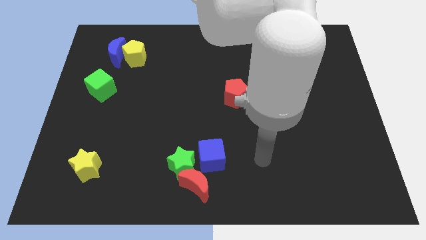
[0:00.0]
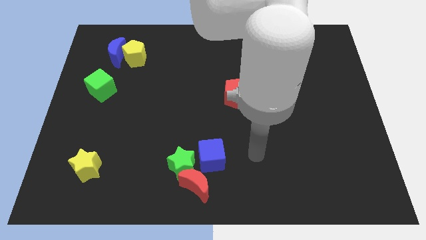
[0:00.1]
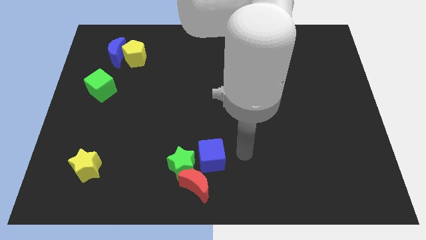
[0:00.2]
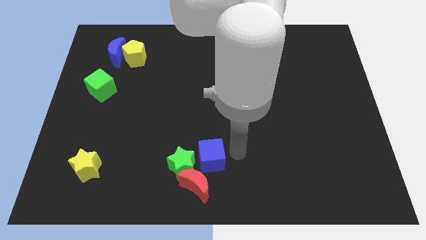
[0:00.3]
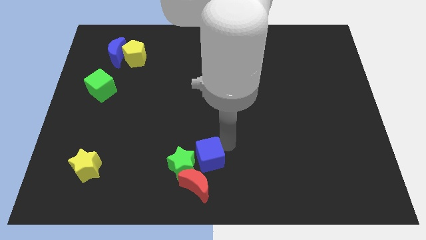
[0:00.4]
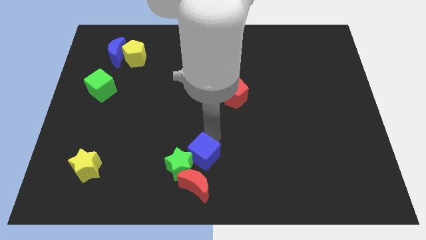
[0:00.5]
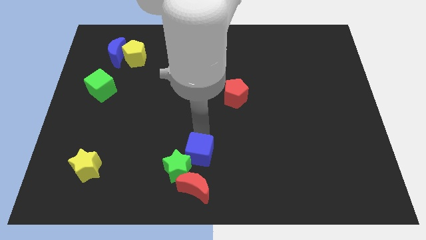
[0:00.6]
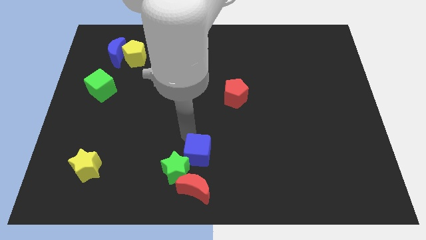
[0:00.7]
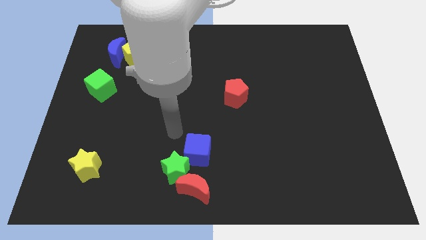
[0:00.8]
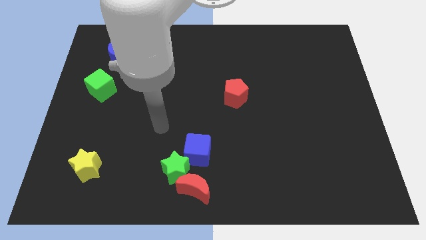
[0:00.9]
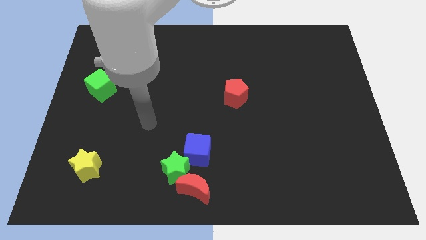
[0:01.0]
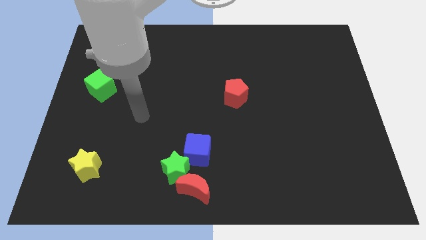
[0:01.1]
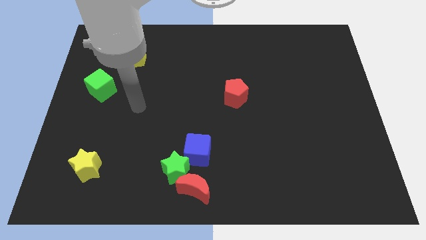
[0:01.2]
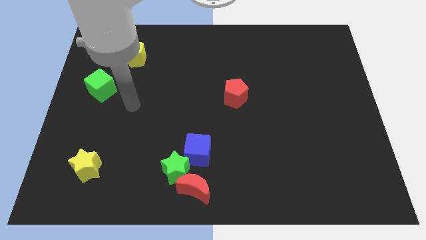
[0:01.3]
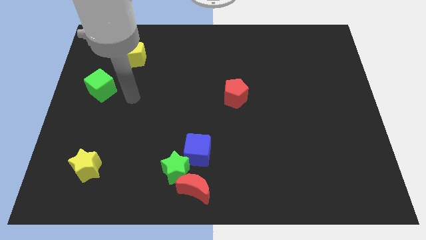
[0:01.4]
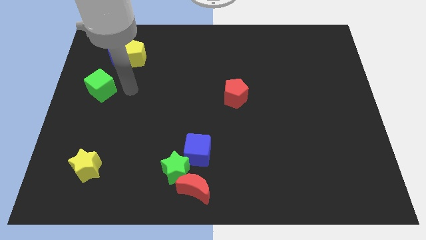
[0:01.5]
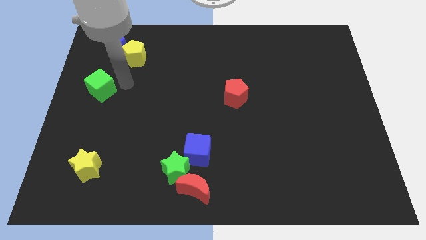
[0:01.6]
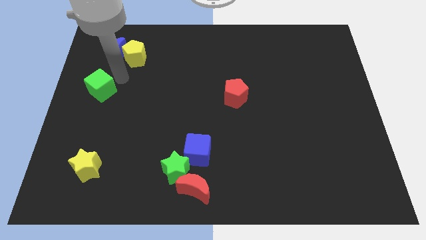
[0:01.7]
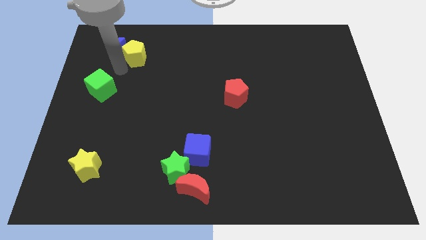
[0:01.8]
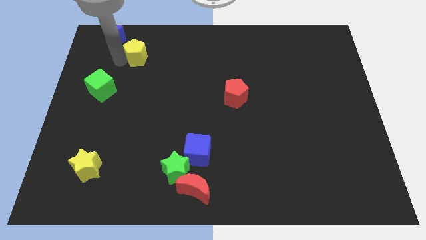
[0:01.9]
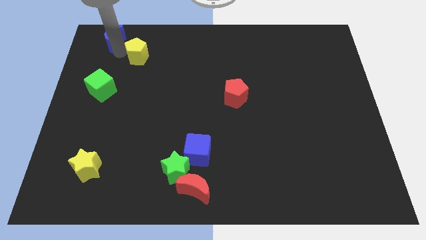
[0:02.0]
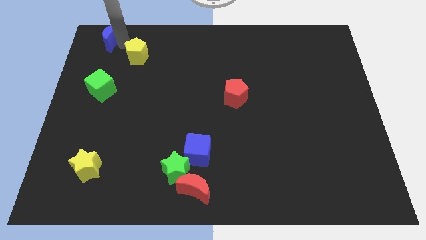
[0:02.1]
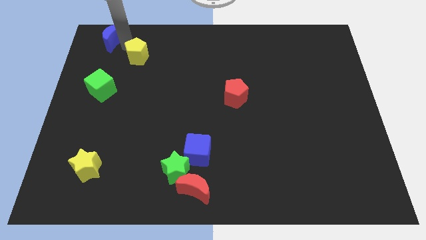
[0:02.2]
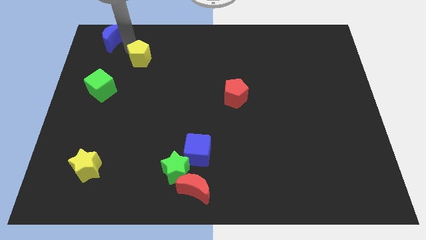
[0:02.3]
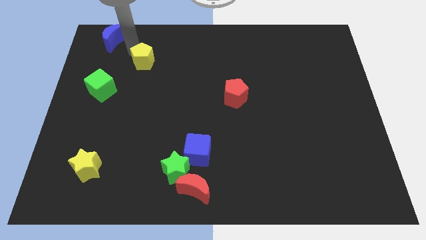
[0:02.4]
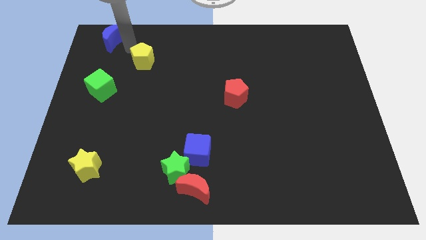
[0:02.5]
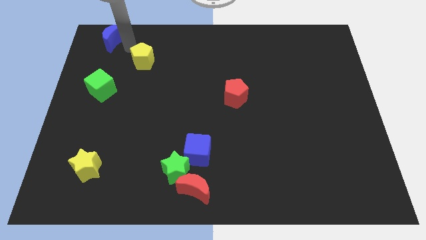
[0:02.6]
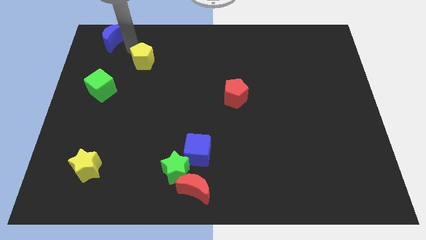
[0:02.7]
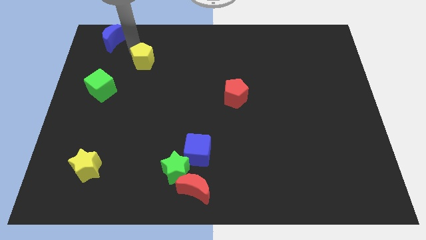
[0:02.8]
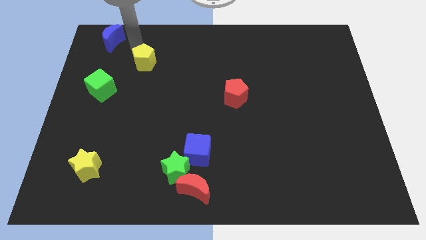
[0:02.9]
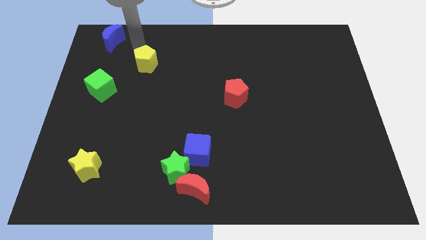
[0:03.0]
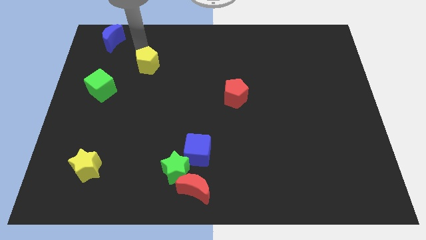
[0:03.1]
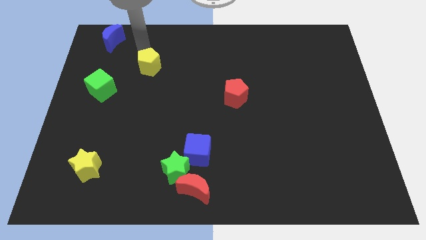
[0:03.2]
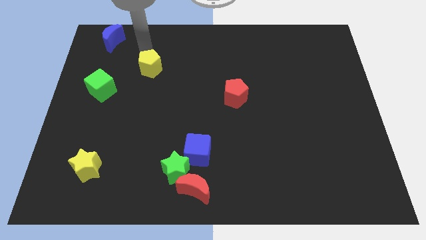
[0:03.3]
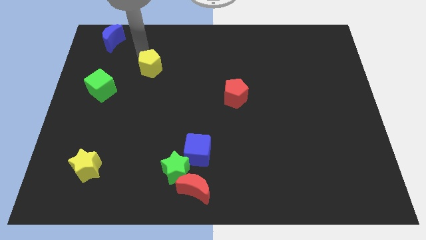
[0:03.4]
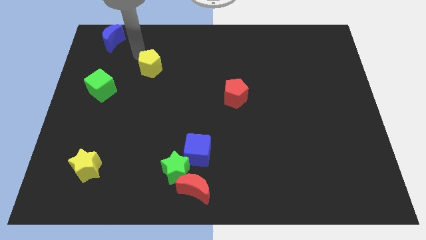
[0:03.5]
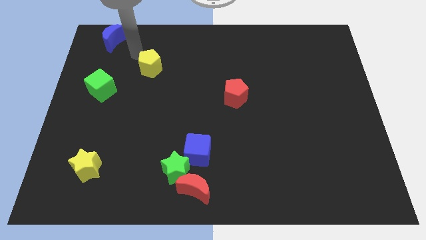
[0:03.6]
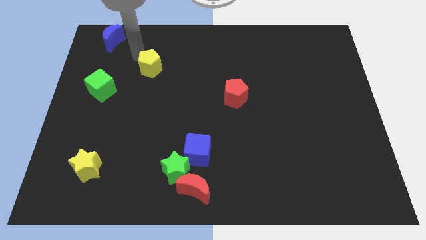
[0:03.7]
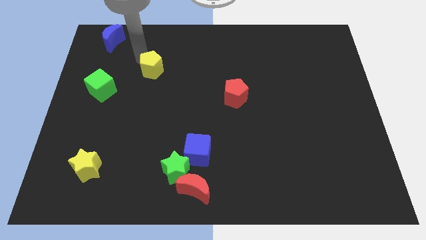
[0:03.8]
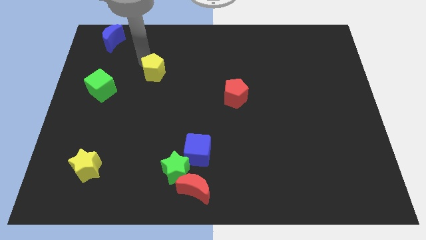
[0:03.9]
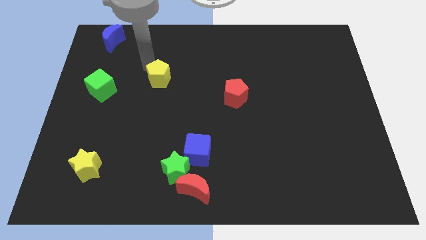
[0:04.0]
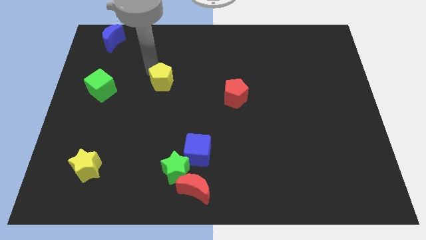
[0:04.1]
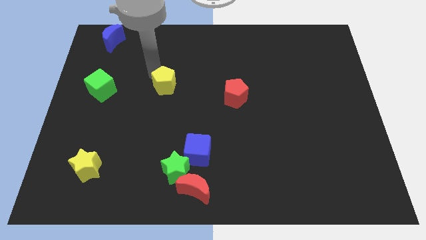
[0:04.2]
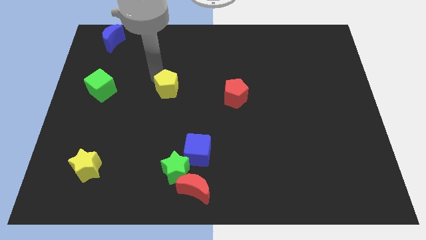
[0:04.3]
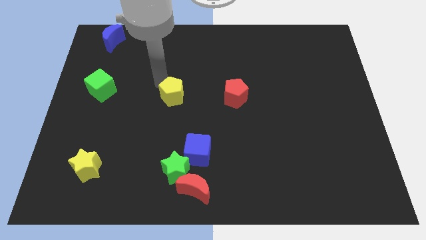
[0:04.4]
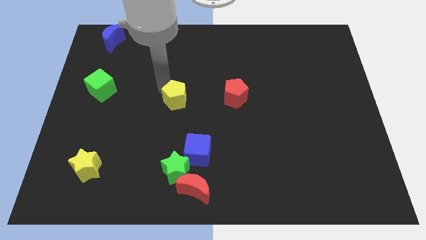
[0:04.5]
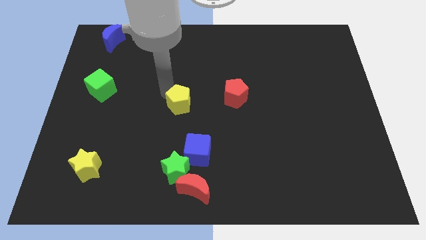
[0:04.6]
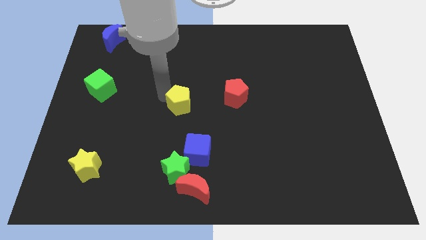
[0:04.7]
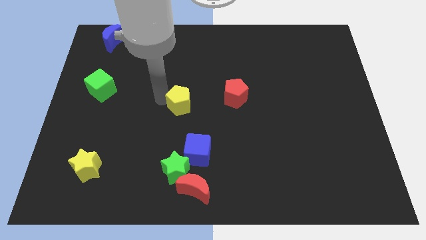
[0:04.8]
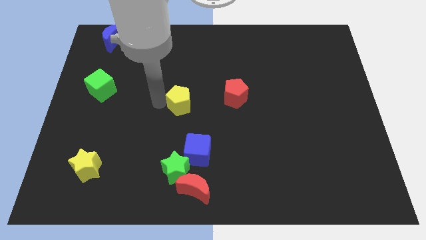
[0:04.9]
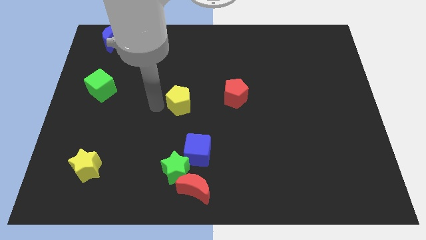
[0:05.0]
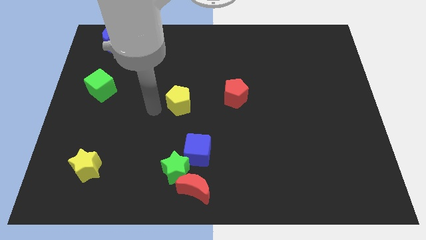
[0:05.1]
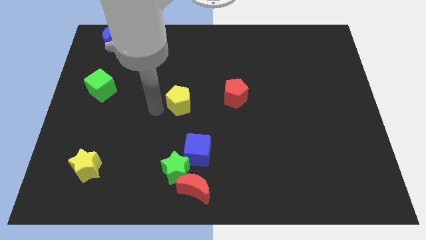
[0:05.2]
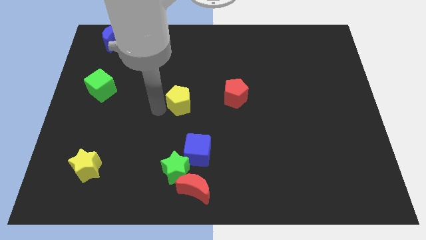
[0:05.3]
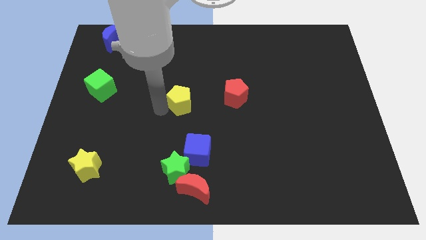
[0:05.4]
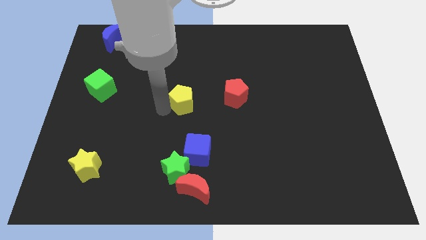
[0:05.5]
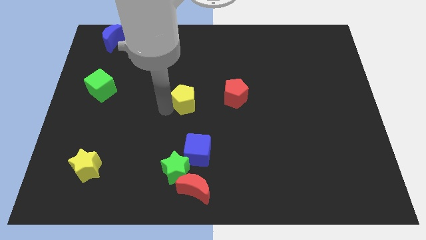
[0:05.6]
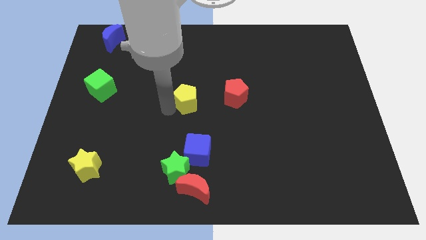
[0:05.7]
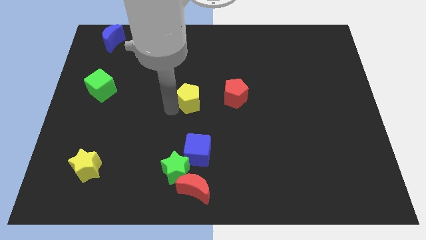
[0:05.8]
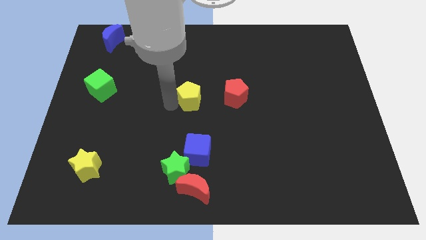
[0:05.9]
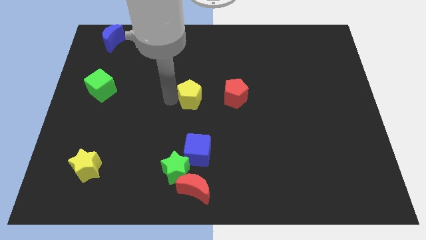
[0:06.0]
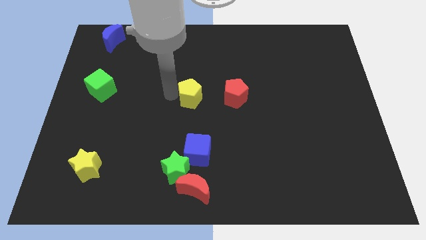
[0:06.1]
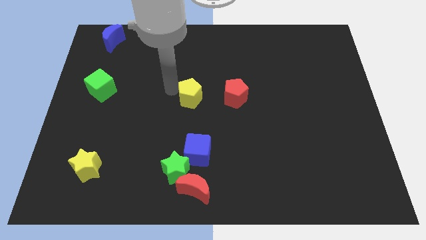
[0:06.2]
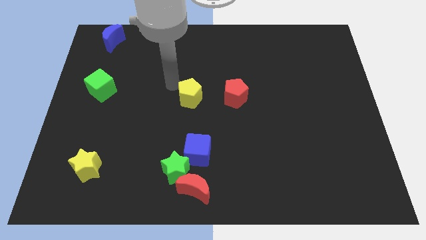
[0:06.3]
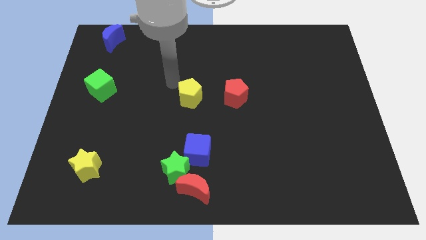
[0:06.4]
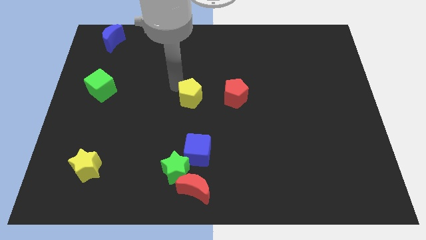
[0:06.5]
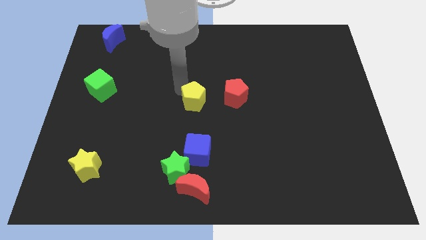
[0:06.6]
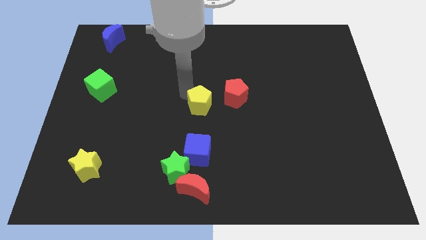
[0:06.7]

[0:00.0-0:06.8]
push the yellow pentagon to the bottom left of the red pentagon

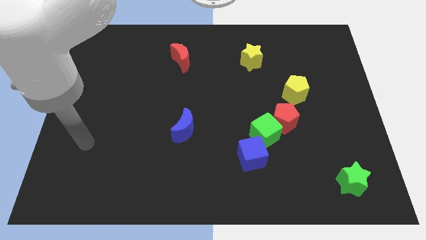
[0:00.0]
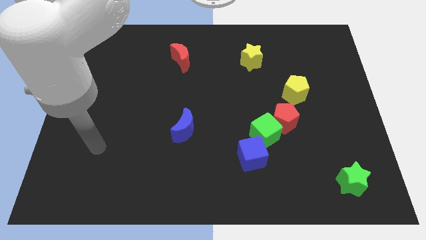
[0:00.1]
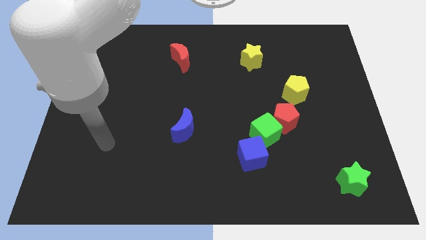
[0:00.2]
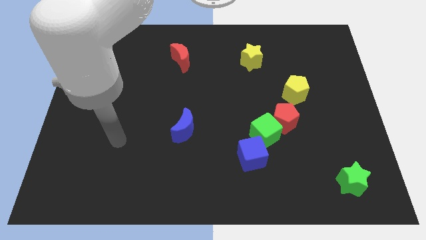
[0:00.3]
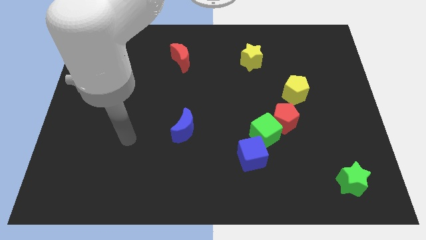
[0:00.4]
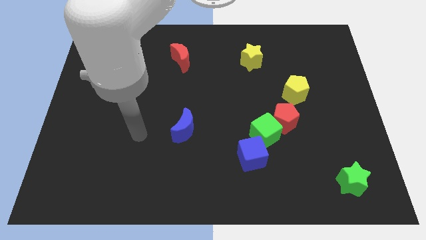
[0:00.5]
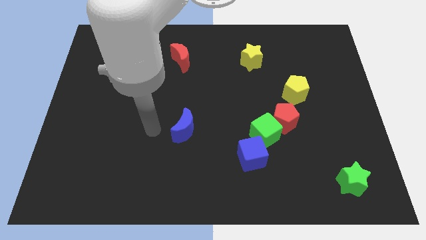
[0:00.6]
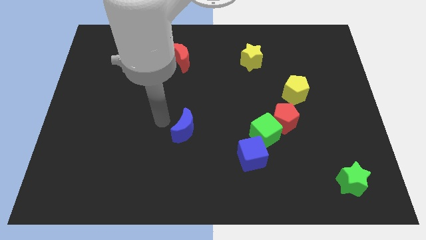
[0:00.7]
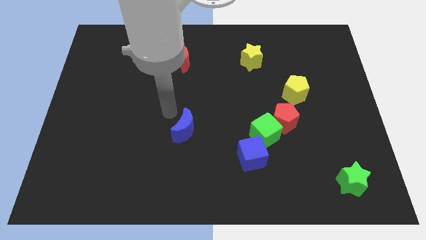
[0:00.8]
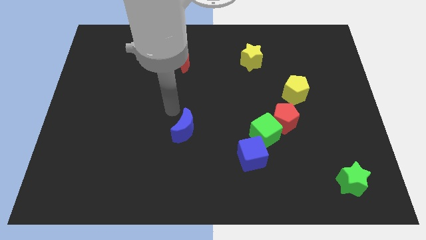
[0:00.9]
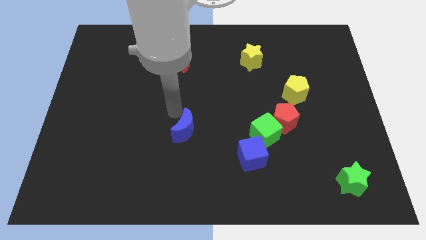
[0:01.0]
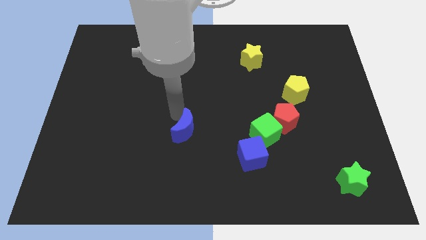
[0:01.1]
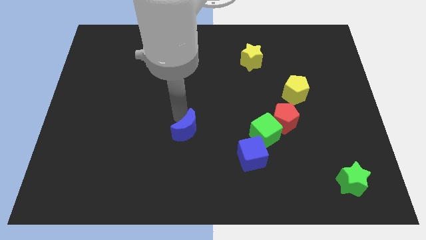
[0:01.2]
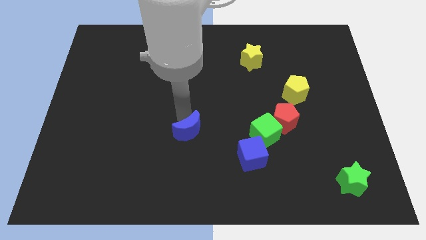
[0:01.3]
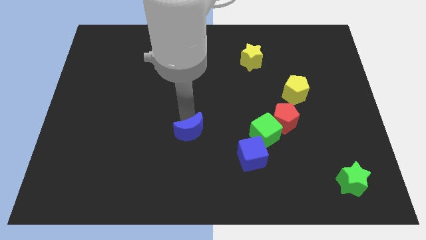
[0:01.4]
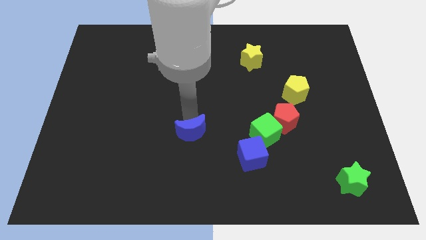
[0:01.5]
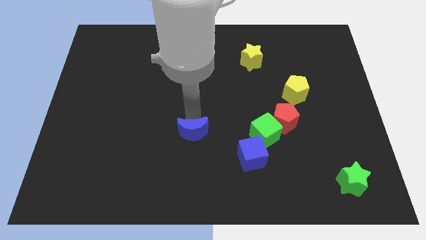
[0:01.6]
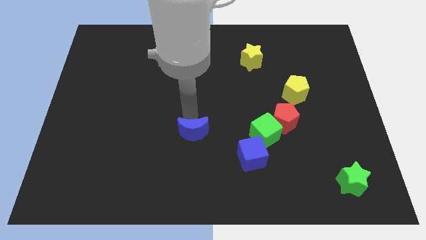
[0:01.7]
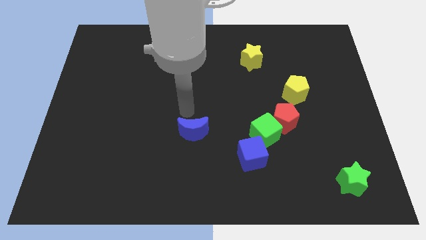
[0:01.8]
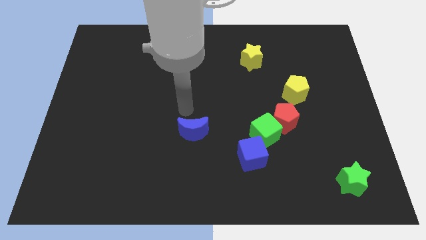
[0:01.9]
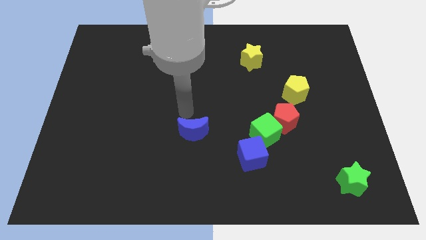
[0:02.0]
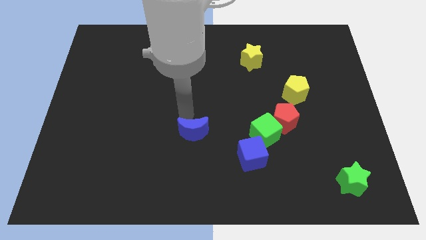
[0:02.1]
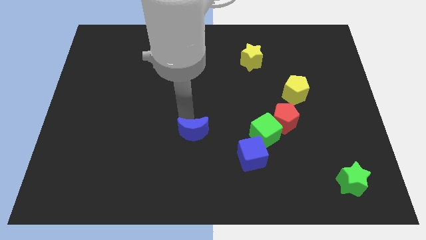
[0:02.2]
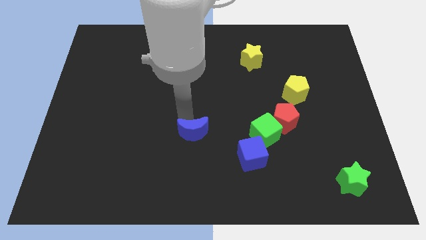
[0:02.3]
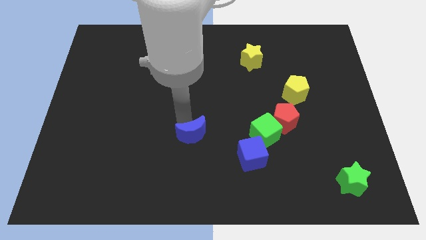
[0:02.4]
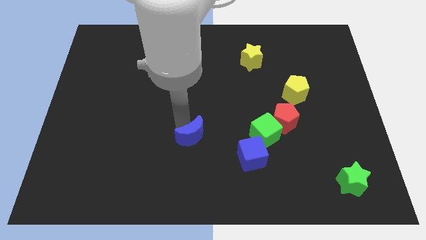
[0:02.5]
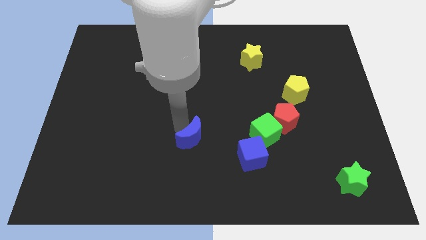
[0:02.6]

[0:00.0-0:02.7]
move the blue moon to the left side of the blue cube
